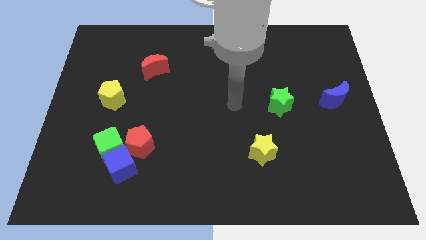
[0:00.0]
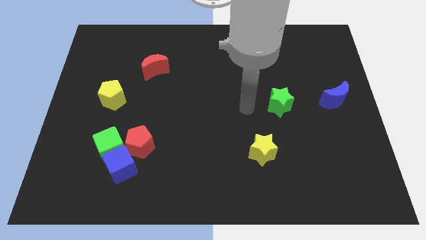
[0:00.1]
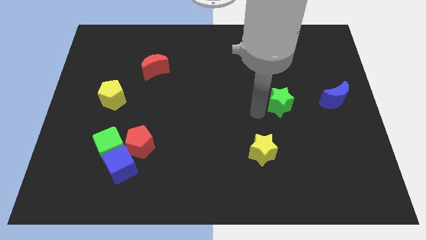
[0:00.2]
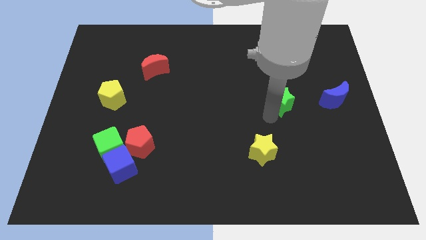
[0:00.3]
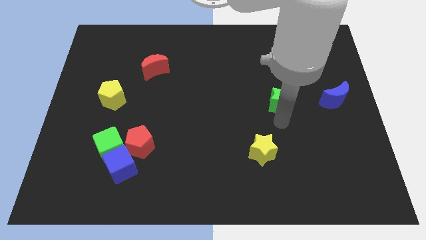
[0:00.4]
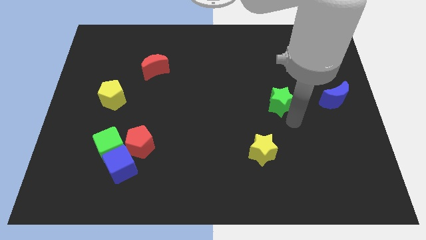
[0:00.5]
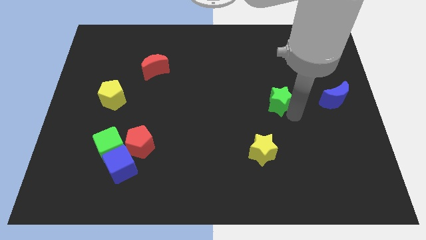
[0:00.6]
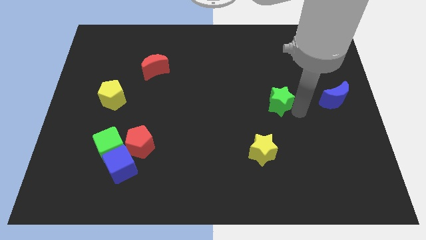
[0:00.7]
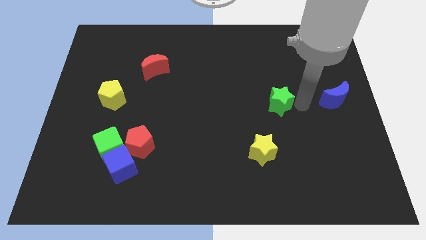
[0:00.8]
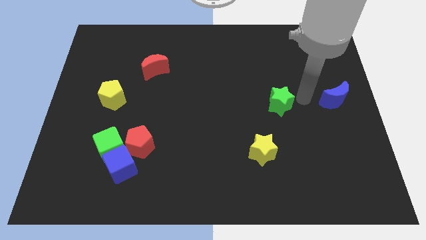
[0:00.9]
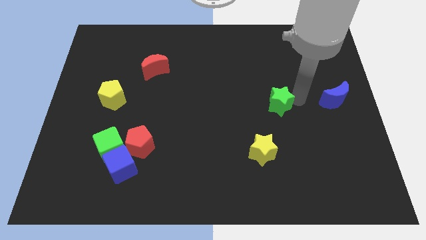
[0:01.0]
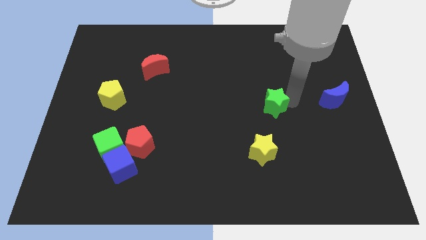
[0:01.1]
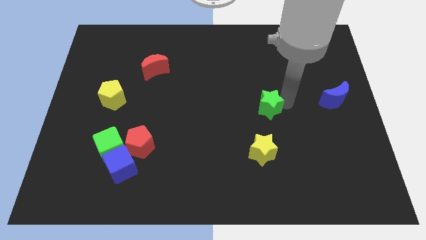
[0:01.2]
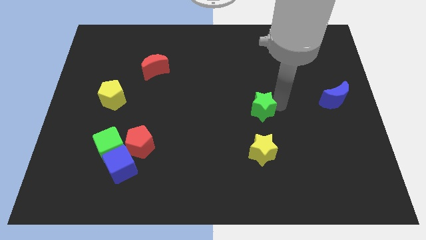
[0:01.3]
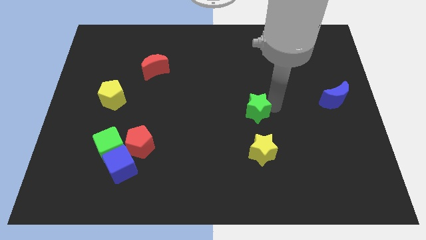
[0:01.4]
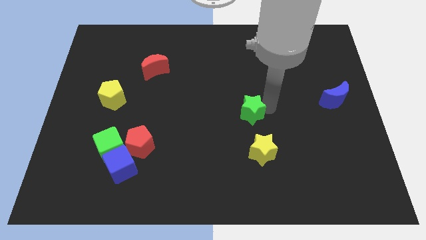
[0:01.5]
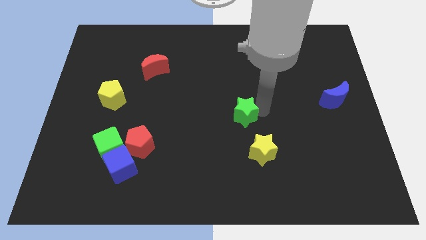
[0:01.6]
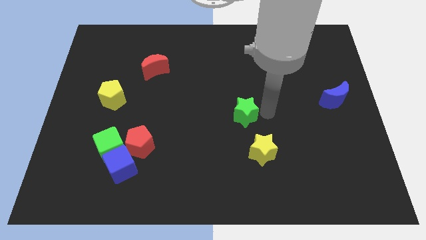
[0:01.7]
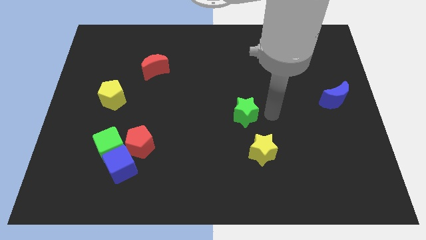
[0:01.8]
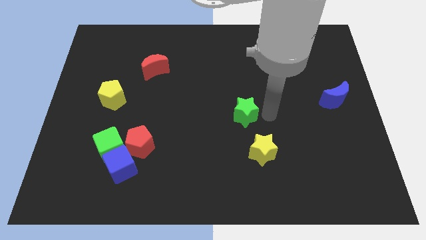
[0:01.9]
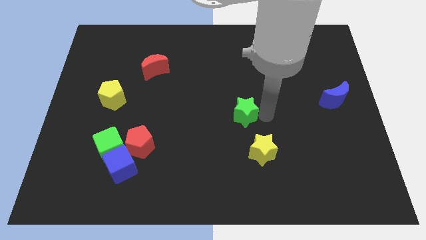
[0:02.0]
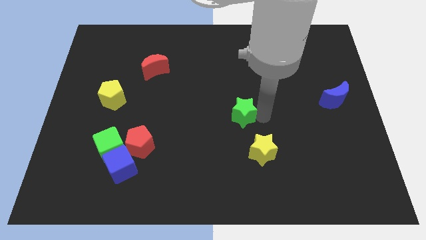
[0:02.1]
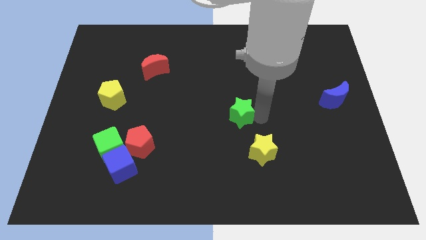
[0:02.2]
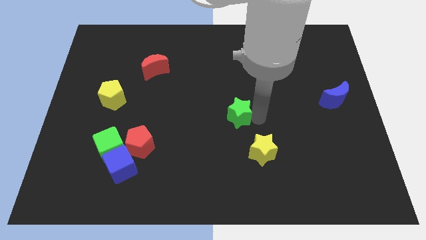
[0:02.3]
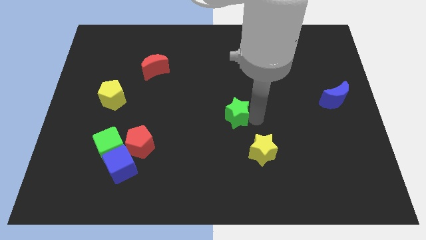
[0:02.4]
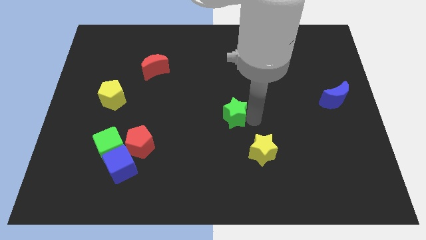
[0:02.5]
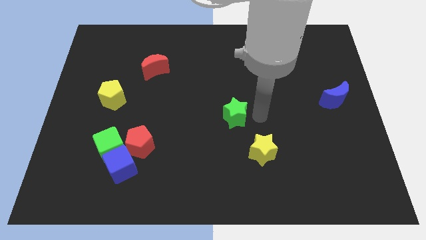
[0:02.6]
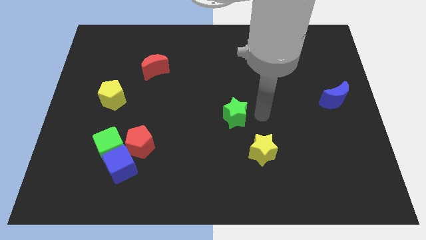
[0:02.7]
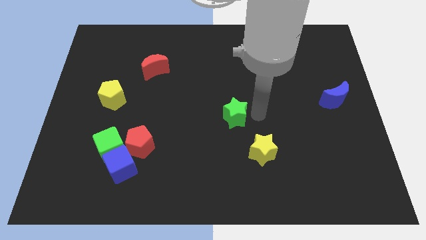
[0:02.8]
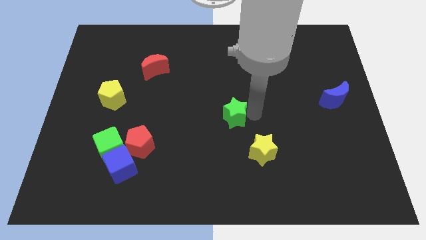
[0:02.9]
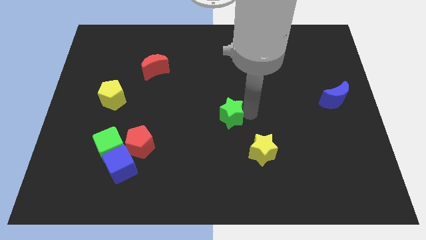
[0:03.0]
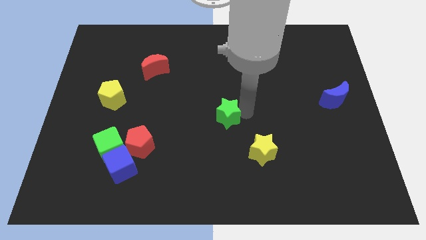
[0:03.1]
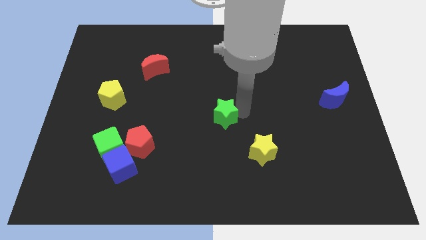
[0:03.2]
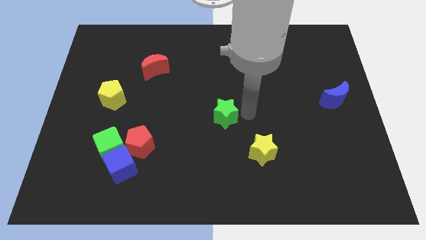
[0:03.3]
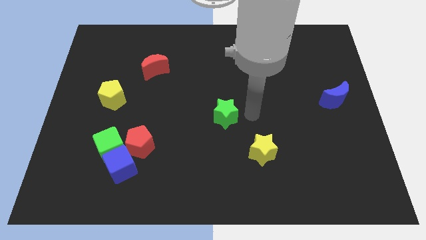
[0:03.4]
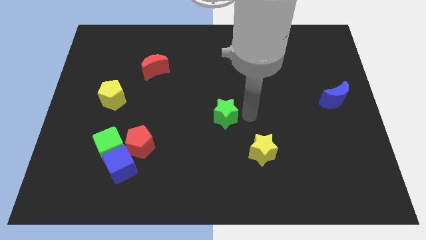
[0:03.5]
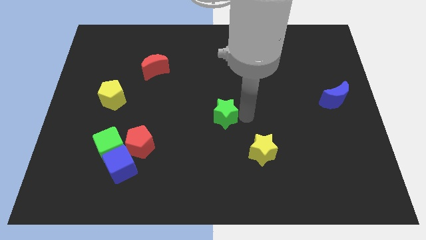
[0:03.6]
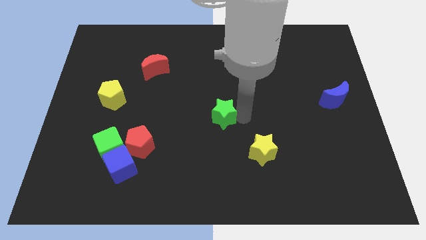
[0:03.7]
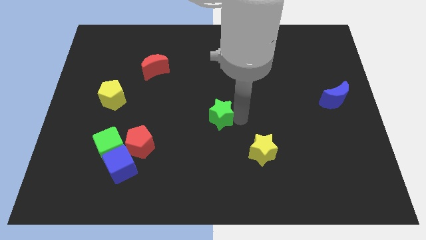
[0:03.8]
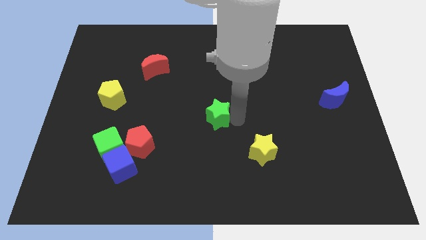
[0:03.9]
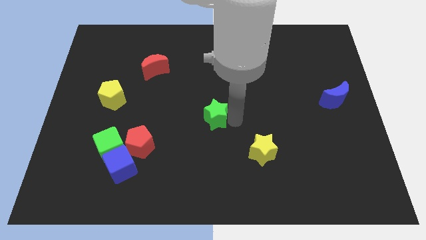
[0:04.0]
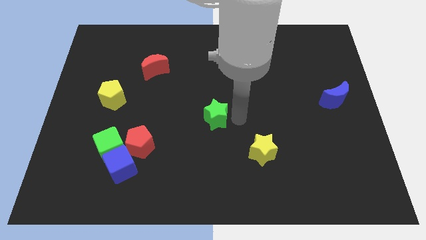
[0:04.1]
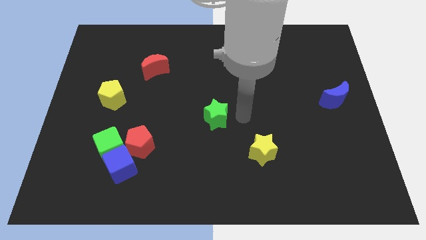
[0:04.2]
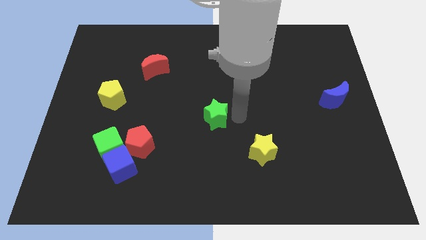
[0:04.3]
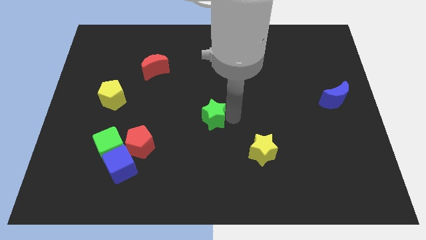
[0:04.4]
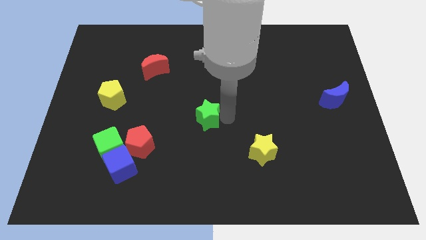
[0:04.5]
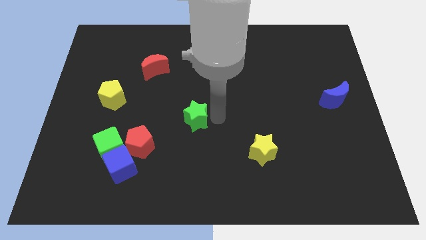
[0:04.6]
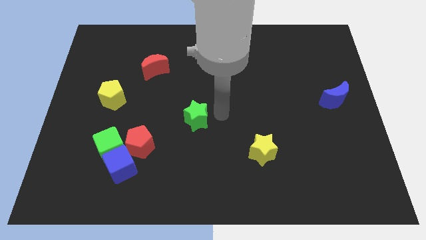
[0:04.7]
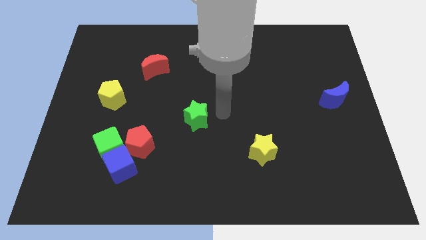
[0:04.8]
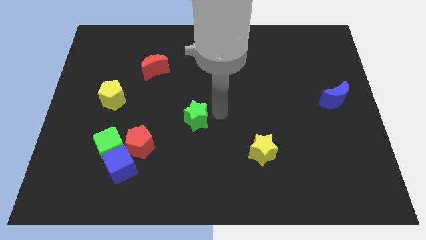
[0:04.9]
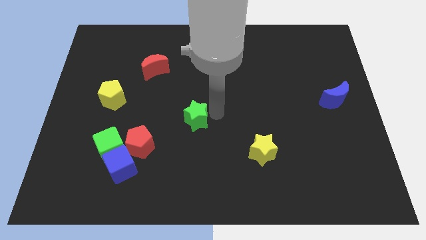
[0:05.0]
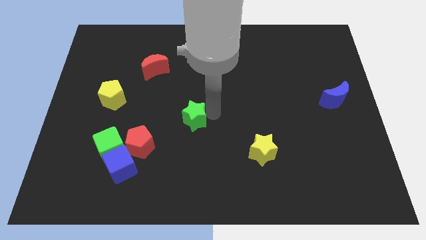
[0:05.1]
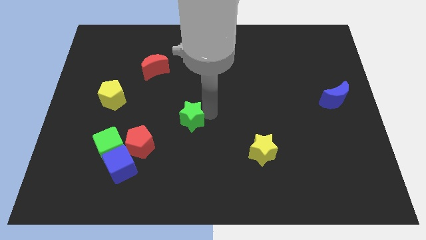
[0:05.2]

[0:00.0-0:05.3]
move the green star diagonally up and to the right of the red pentagon

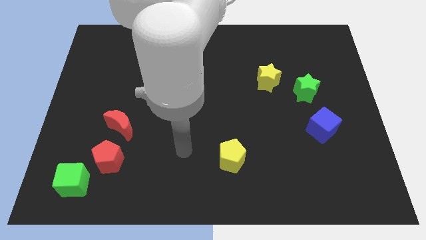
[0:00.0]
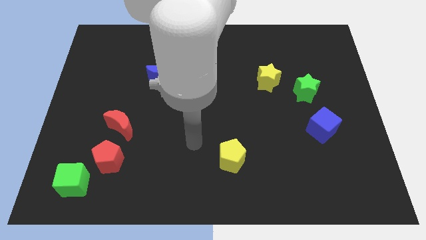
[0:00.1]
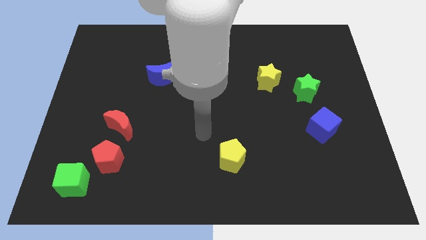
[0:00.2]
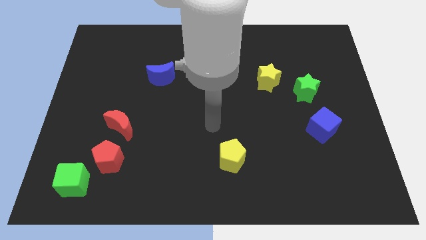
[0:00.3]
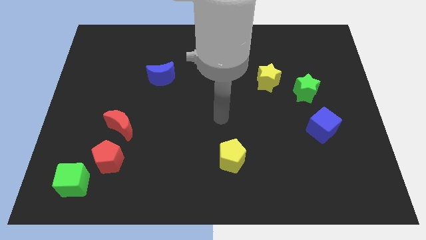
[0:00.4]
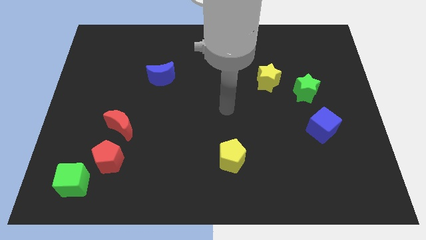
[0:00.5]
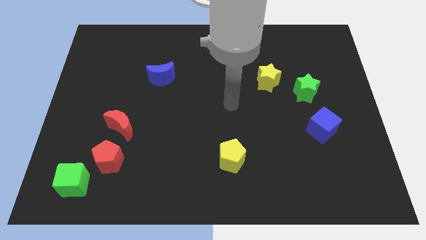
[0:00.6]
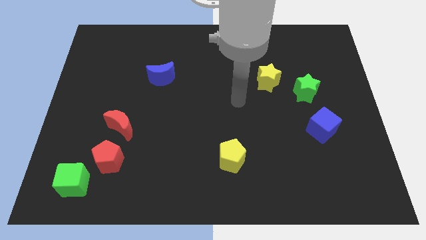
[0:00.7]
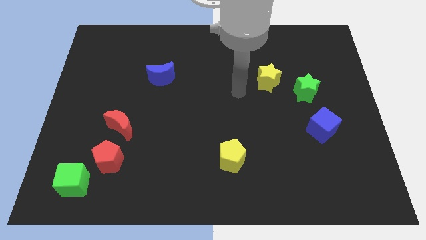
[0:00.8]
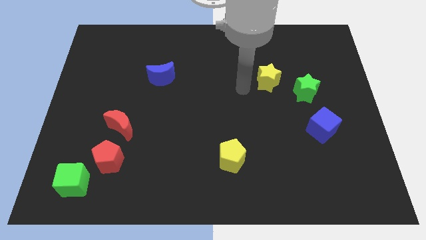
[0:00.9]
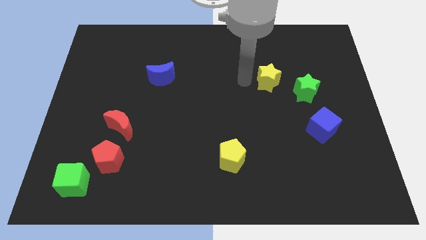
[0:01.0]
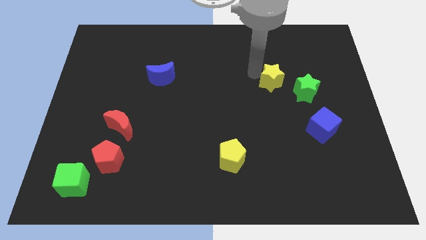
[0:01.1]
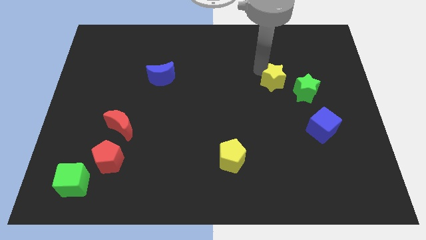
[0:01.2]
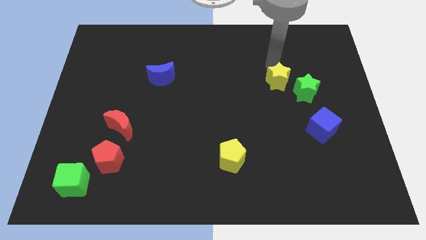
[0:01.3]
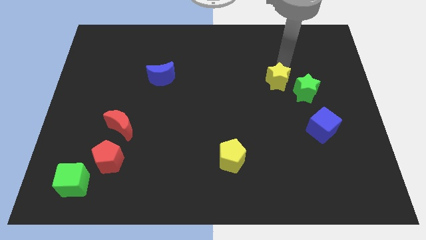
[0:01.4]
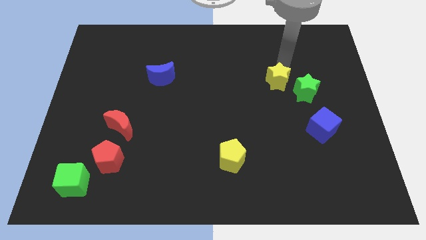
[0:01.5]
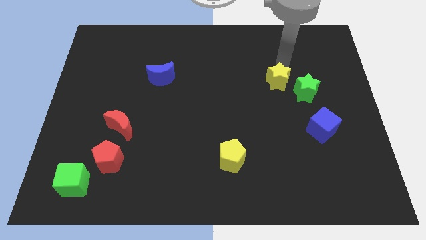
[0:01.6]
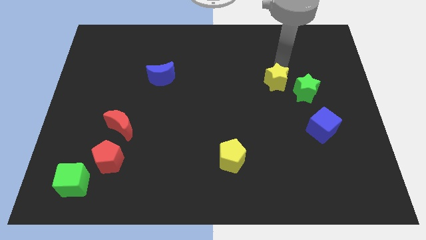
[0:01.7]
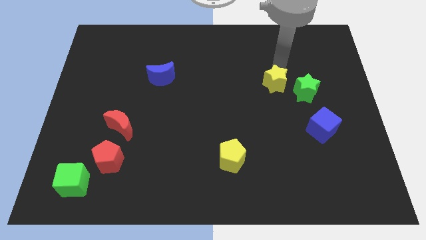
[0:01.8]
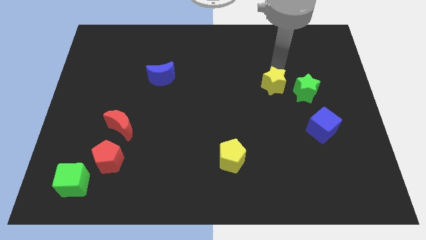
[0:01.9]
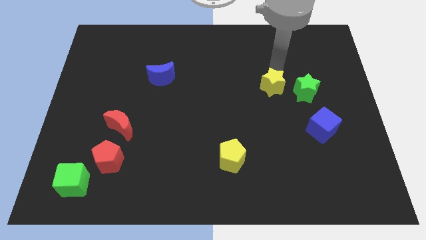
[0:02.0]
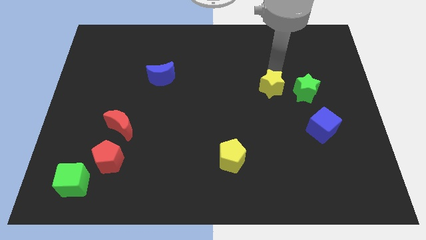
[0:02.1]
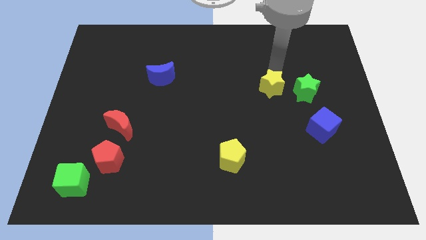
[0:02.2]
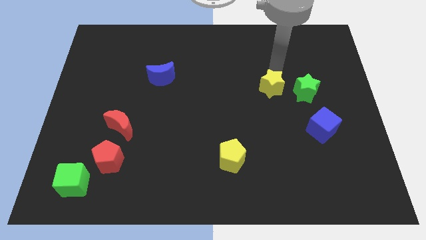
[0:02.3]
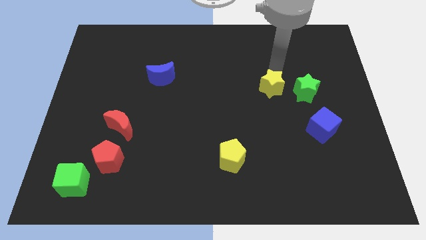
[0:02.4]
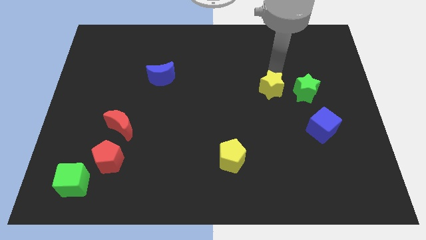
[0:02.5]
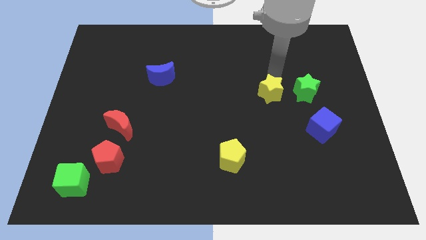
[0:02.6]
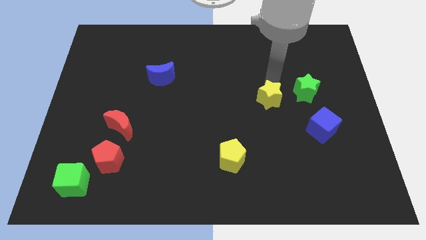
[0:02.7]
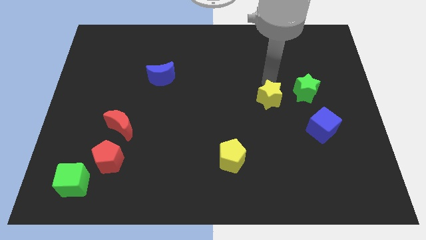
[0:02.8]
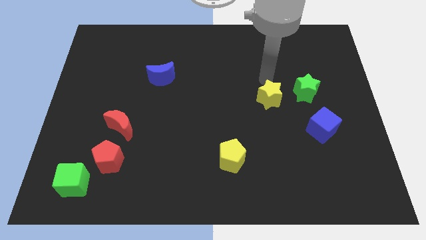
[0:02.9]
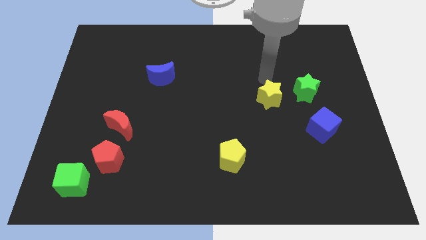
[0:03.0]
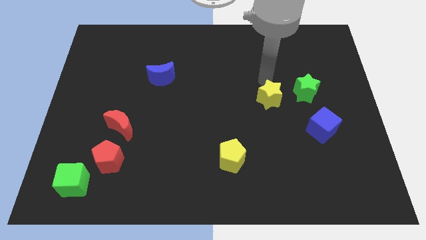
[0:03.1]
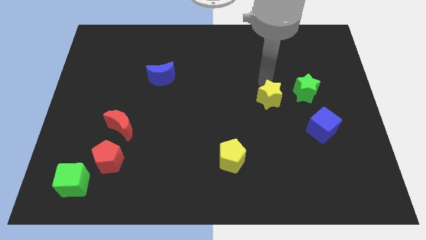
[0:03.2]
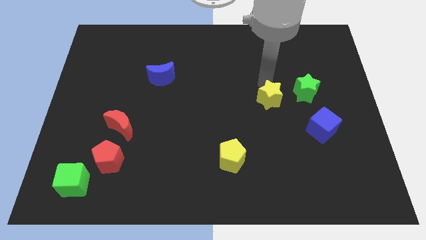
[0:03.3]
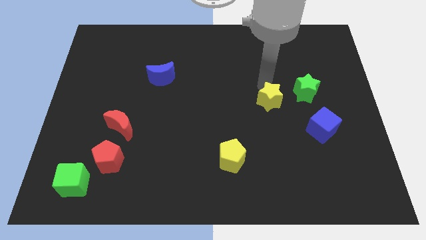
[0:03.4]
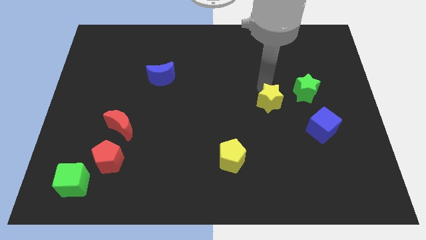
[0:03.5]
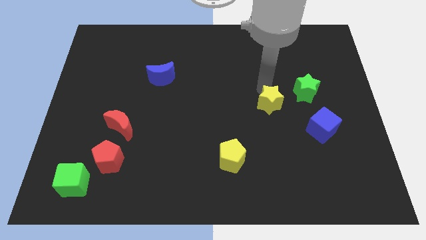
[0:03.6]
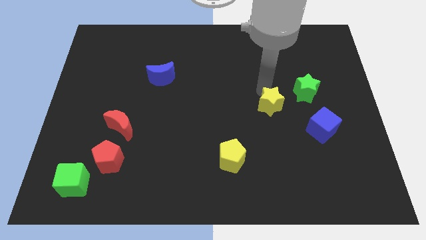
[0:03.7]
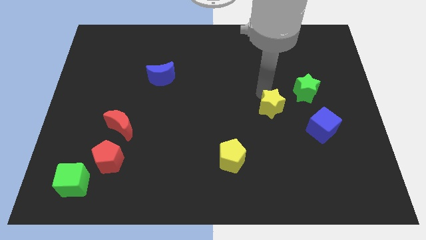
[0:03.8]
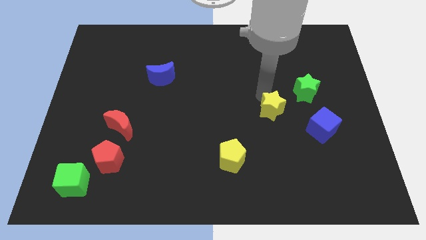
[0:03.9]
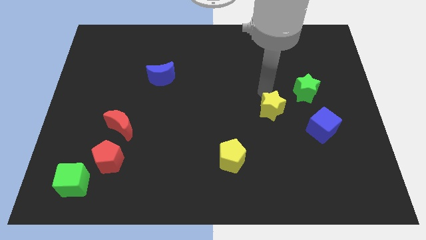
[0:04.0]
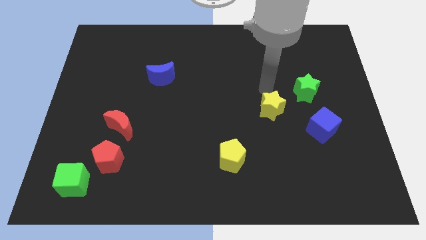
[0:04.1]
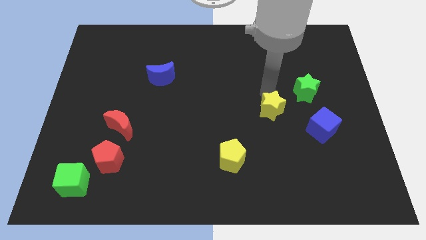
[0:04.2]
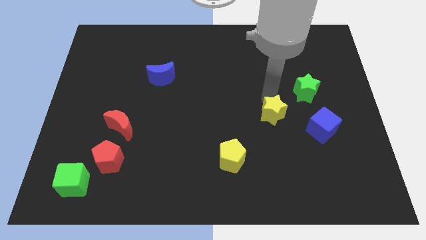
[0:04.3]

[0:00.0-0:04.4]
push the yellow star to the left side of the blue cube
